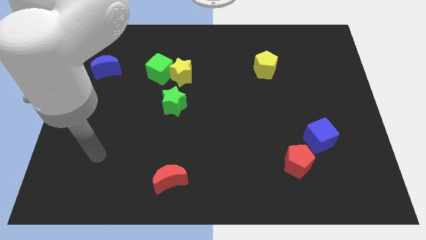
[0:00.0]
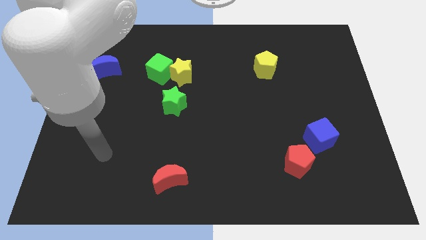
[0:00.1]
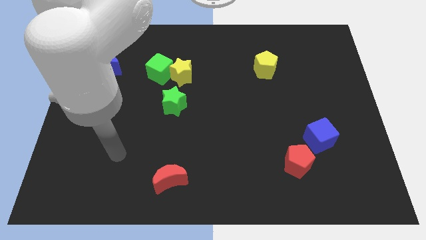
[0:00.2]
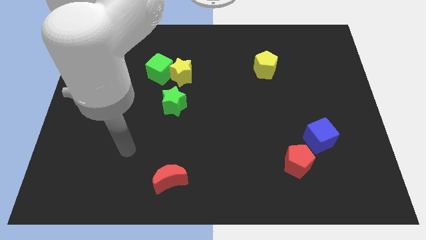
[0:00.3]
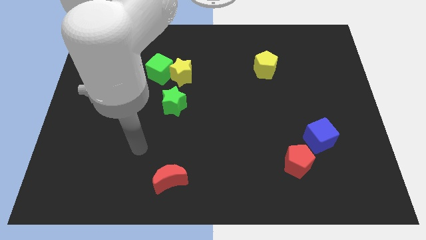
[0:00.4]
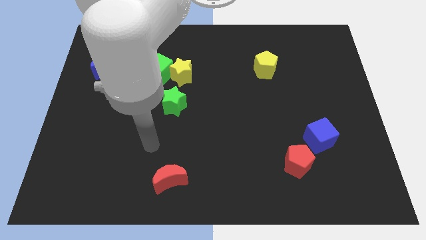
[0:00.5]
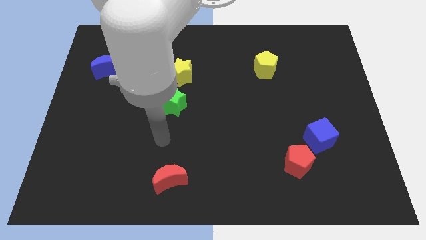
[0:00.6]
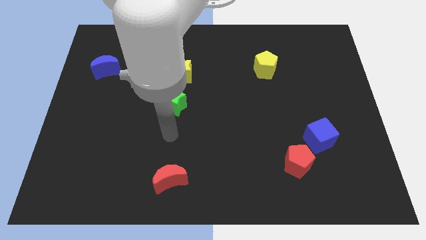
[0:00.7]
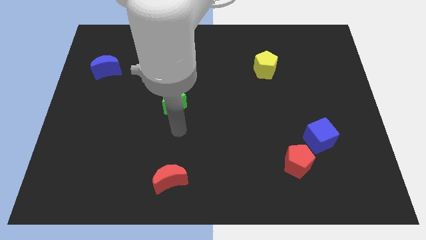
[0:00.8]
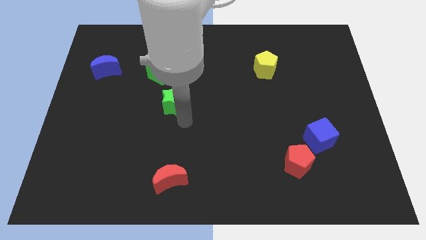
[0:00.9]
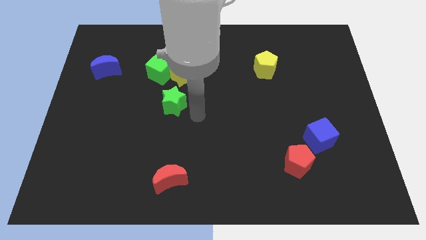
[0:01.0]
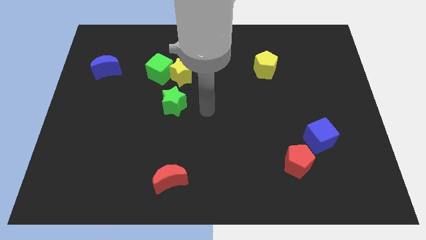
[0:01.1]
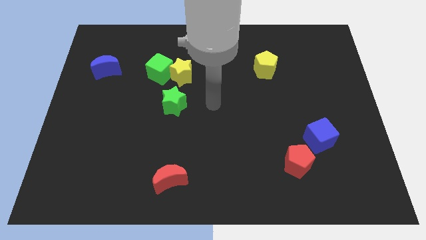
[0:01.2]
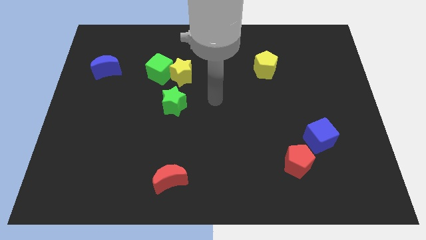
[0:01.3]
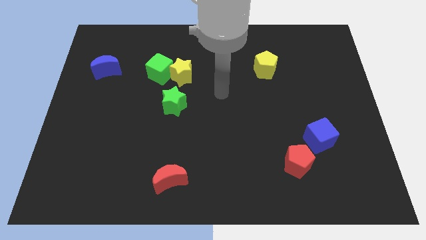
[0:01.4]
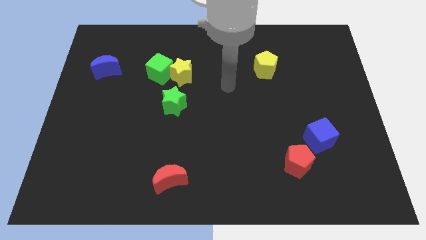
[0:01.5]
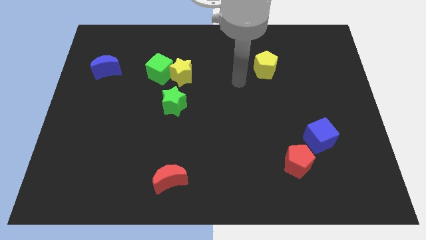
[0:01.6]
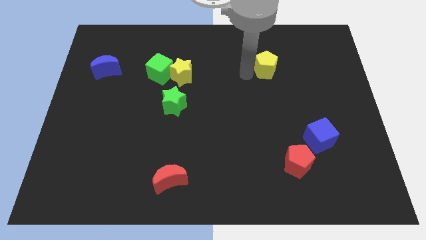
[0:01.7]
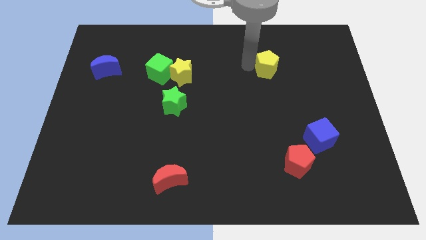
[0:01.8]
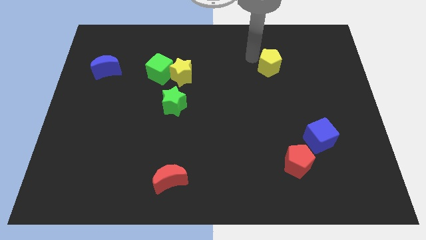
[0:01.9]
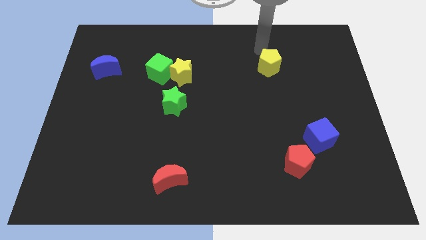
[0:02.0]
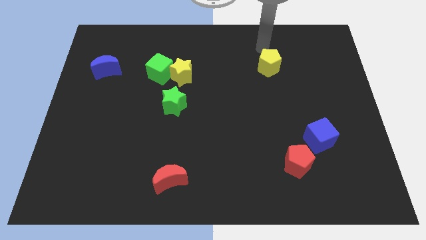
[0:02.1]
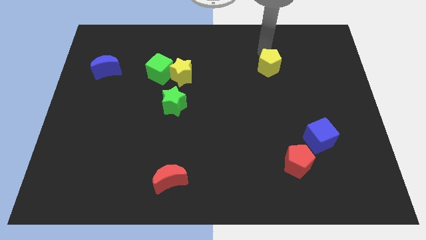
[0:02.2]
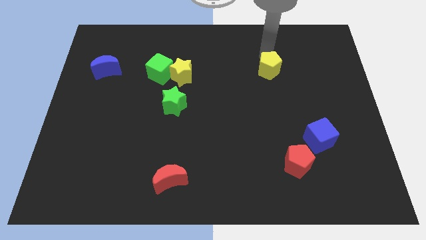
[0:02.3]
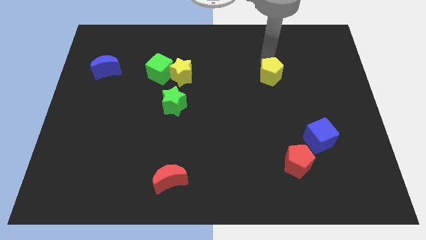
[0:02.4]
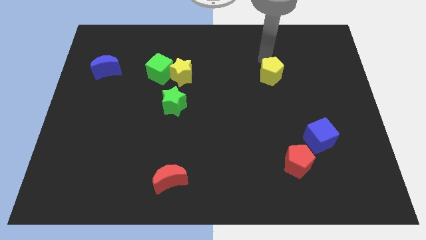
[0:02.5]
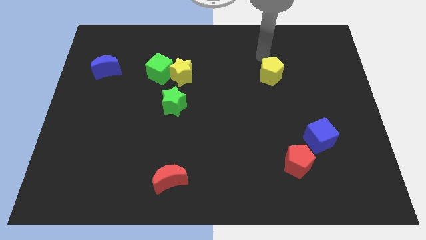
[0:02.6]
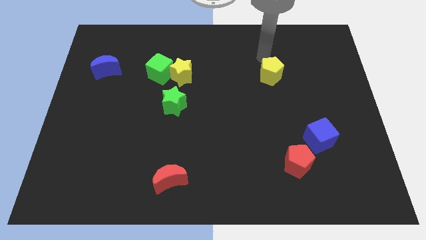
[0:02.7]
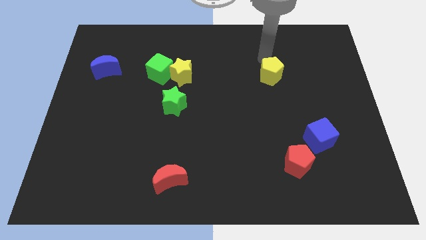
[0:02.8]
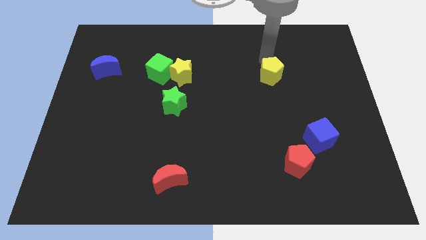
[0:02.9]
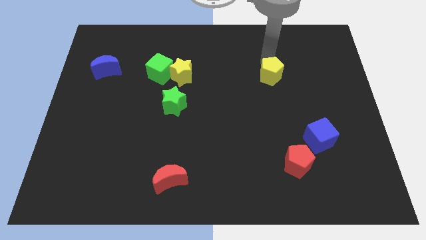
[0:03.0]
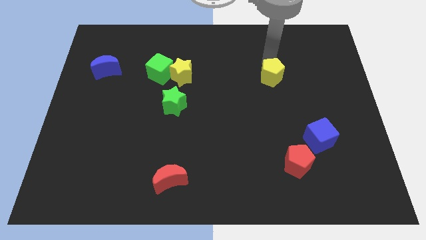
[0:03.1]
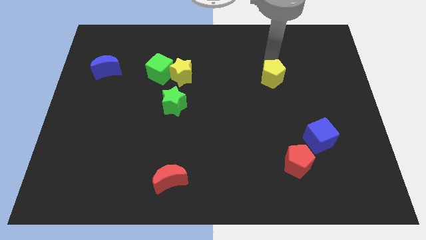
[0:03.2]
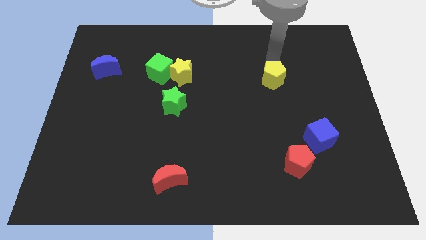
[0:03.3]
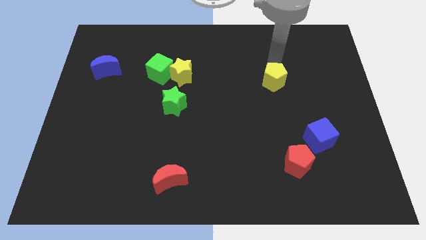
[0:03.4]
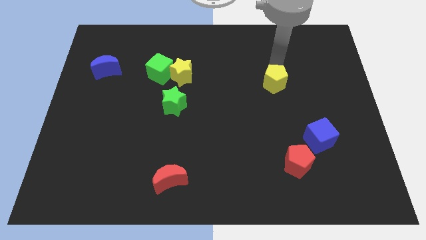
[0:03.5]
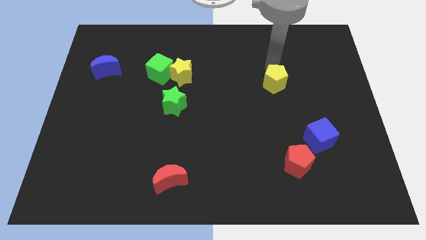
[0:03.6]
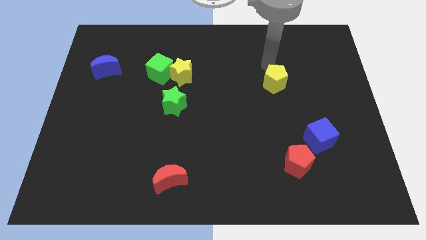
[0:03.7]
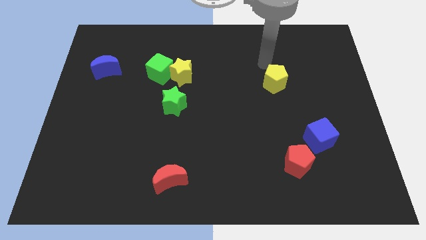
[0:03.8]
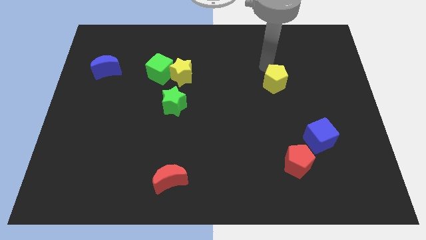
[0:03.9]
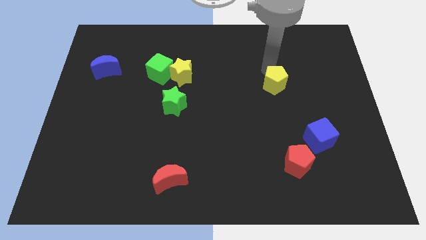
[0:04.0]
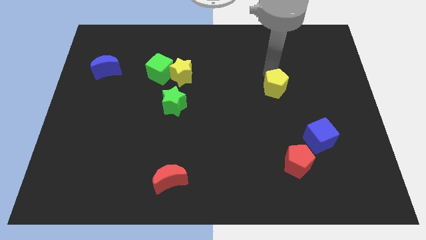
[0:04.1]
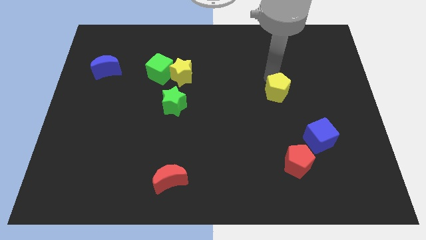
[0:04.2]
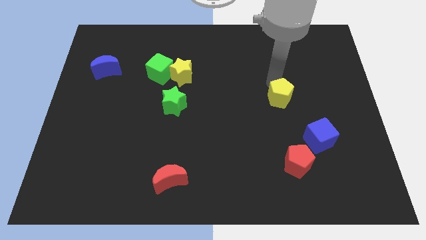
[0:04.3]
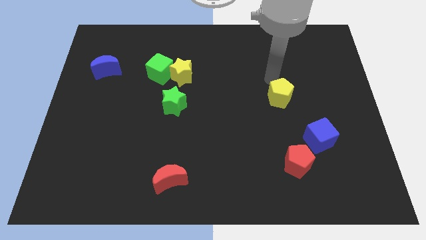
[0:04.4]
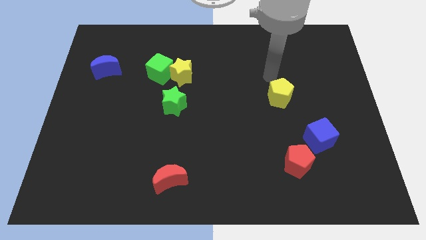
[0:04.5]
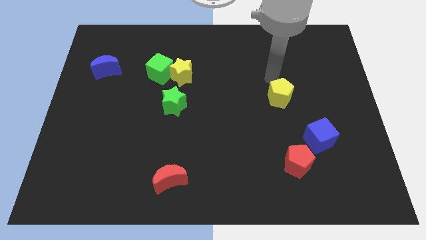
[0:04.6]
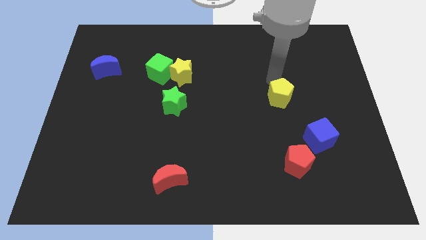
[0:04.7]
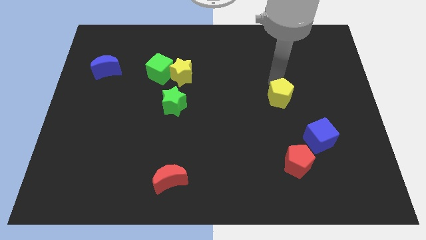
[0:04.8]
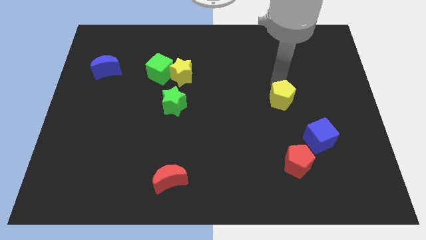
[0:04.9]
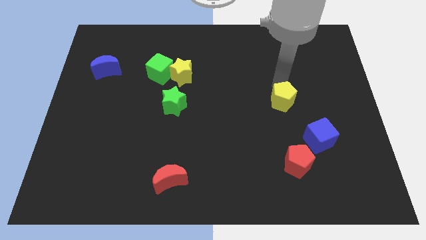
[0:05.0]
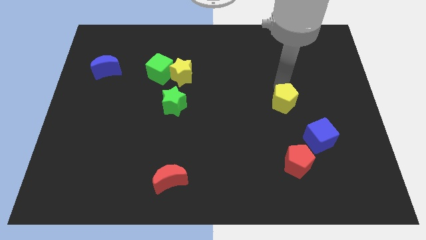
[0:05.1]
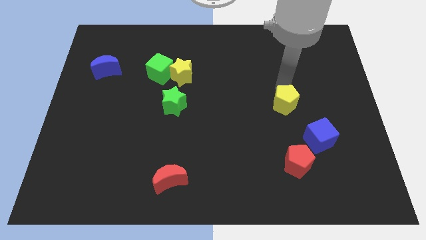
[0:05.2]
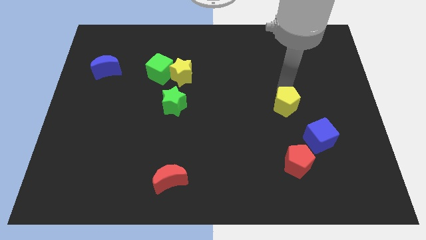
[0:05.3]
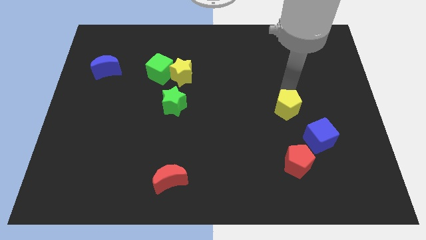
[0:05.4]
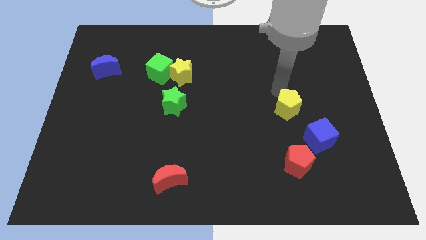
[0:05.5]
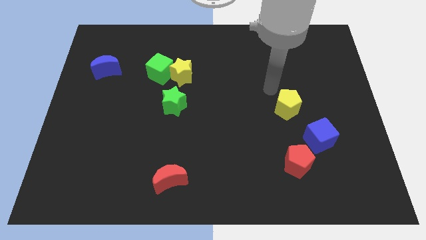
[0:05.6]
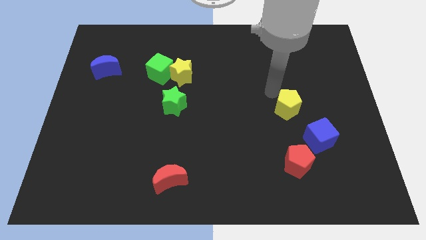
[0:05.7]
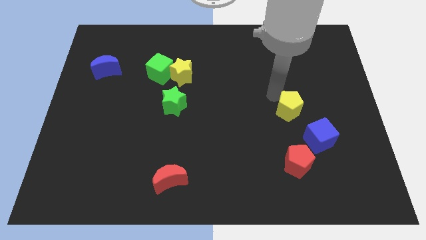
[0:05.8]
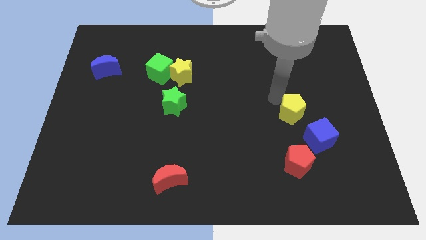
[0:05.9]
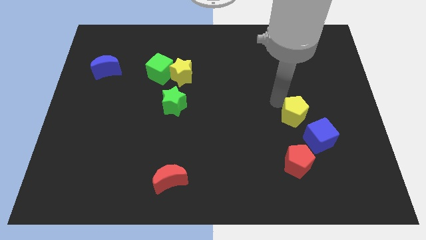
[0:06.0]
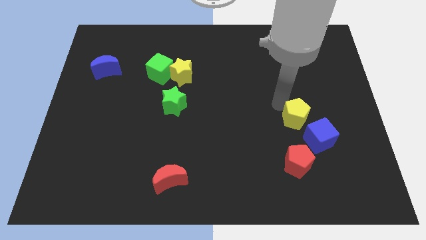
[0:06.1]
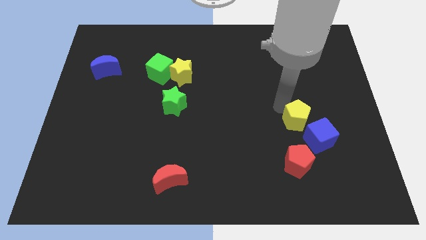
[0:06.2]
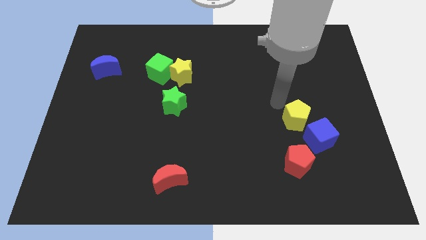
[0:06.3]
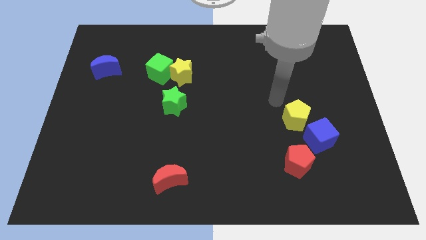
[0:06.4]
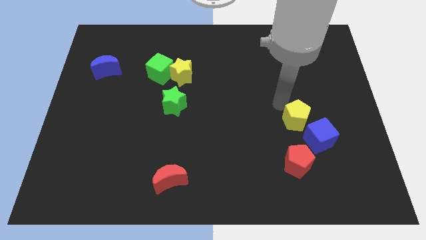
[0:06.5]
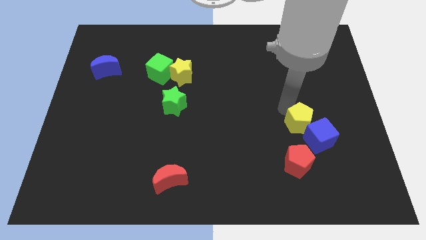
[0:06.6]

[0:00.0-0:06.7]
push the yellow pentagon to the blue cube
